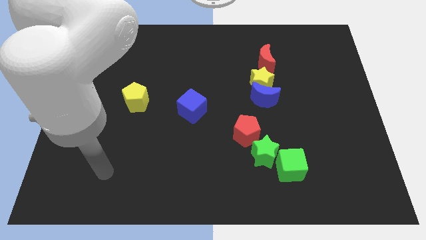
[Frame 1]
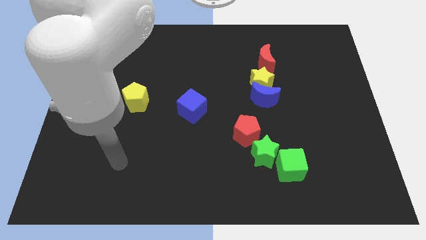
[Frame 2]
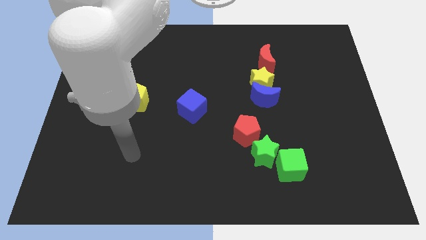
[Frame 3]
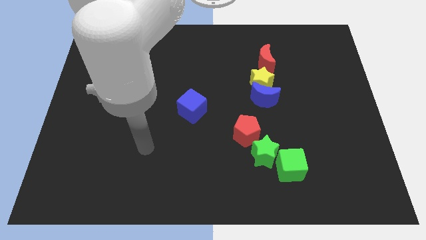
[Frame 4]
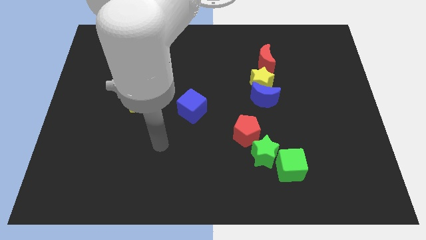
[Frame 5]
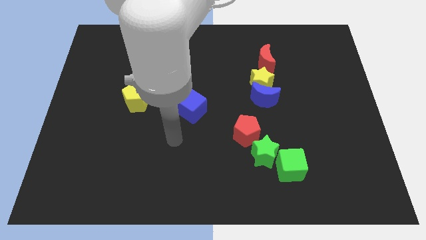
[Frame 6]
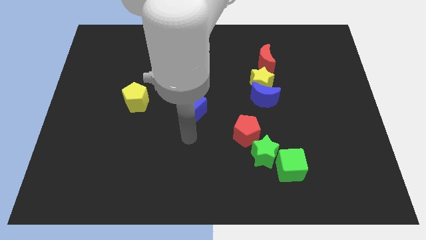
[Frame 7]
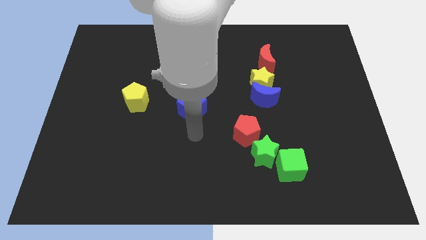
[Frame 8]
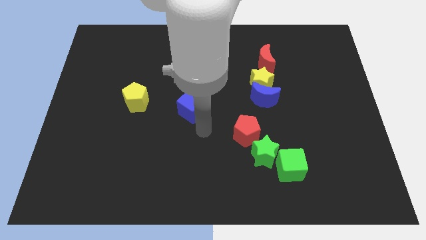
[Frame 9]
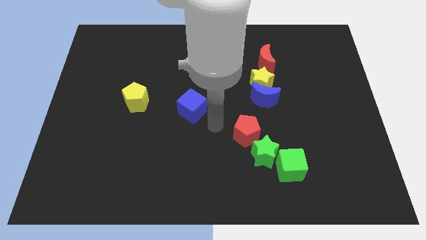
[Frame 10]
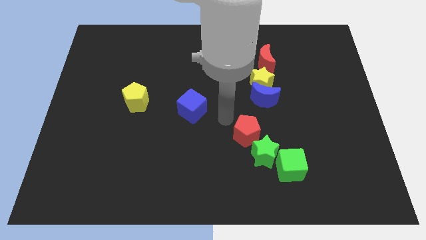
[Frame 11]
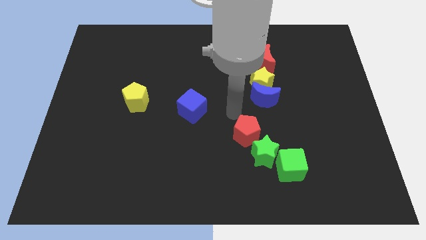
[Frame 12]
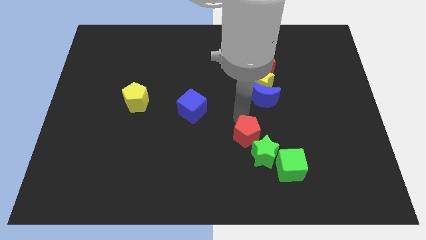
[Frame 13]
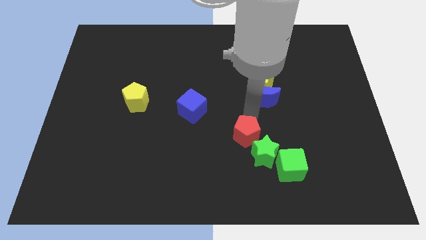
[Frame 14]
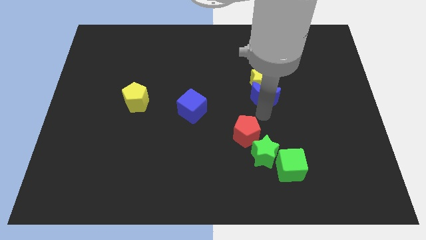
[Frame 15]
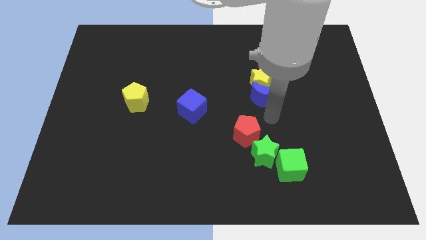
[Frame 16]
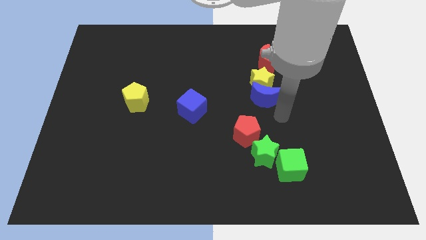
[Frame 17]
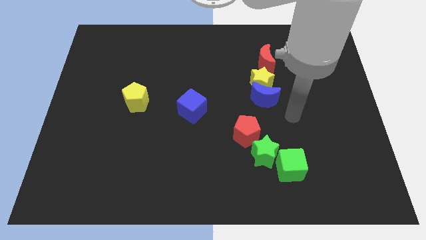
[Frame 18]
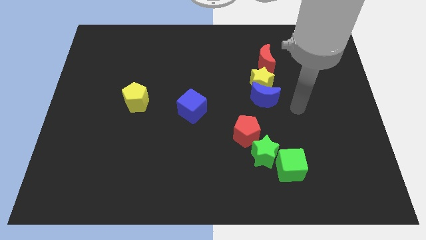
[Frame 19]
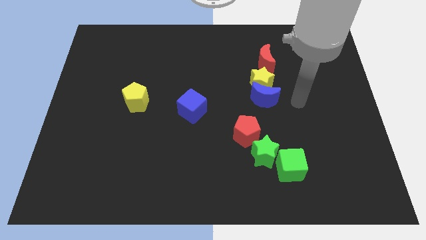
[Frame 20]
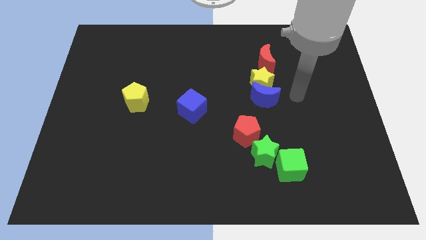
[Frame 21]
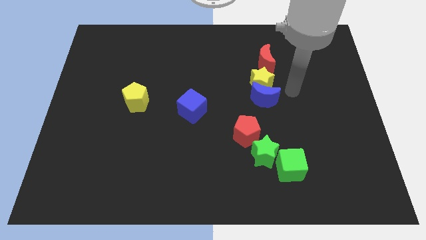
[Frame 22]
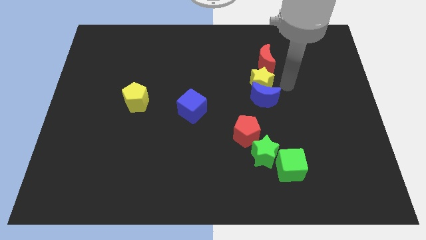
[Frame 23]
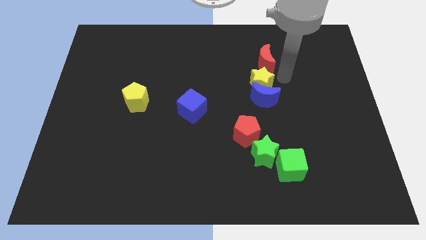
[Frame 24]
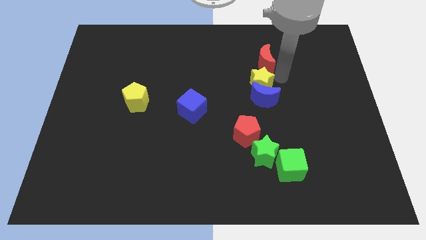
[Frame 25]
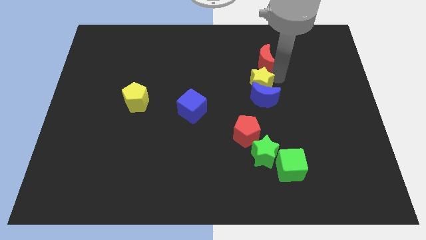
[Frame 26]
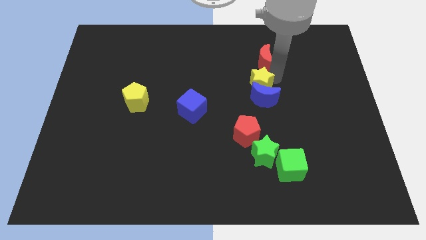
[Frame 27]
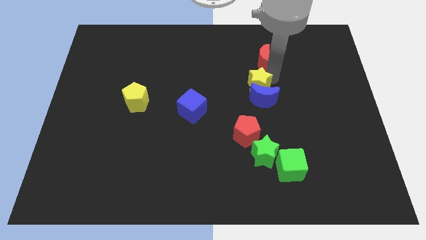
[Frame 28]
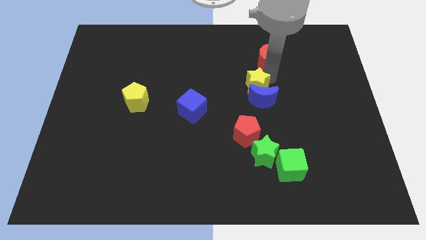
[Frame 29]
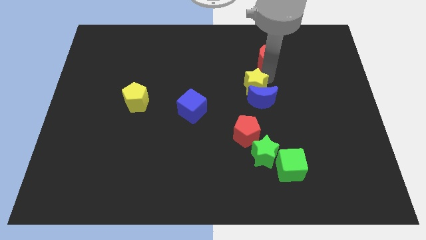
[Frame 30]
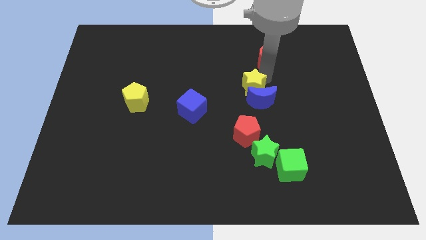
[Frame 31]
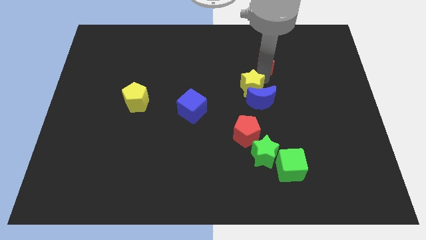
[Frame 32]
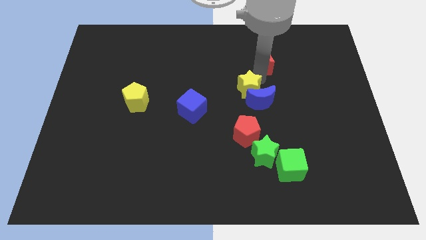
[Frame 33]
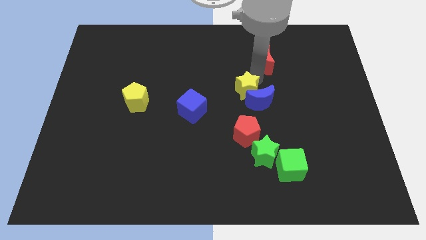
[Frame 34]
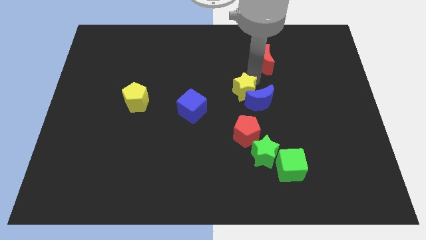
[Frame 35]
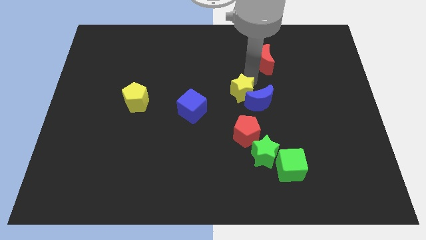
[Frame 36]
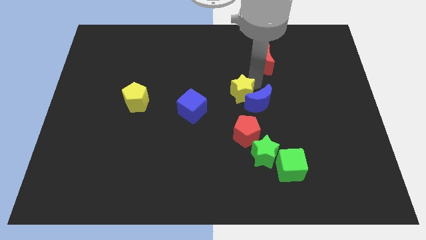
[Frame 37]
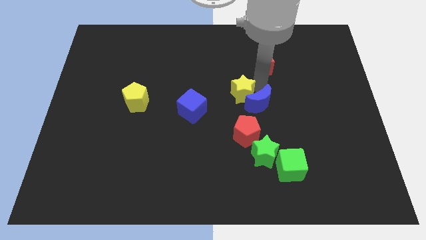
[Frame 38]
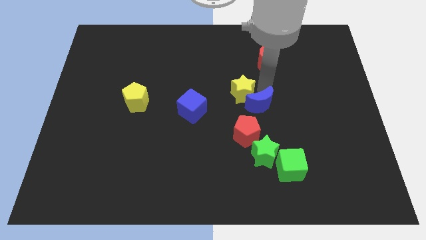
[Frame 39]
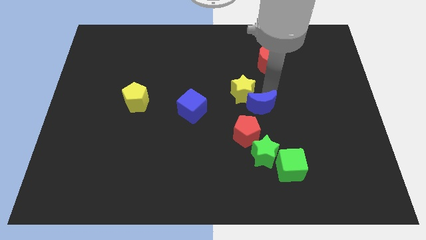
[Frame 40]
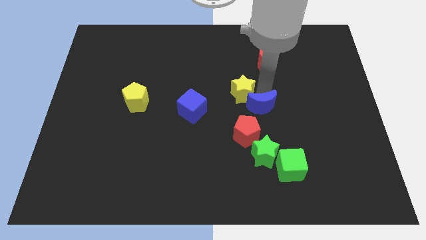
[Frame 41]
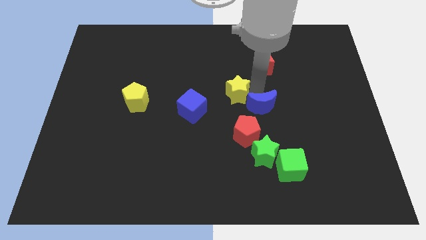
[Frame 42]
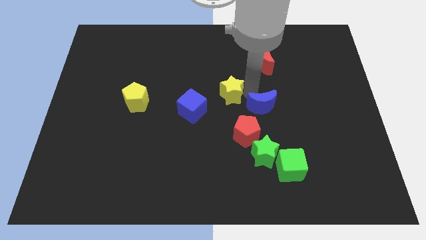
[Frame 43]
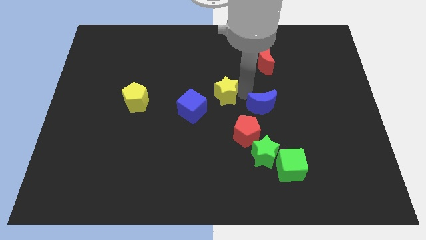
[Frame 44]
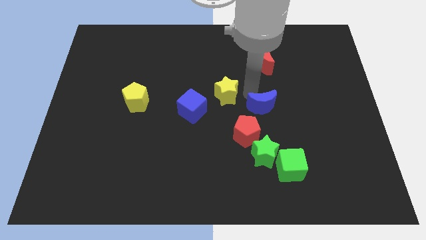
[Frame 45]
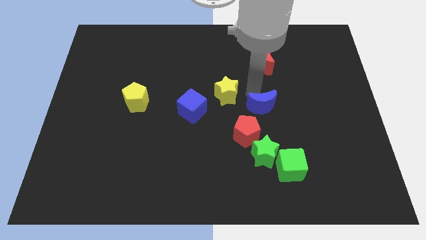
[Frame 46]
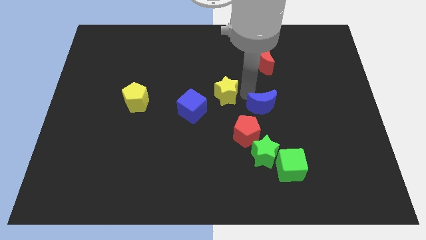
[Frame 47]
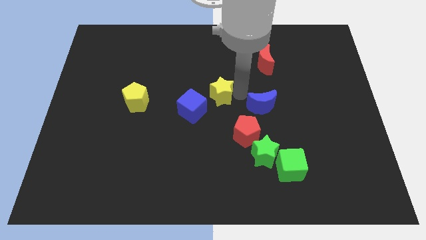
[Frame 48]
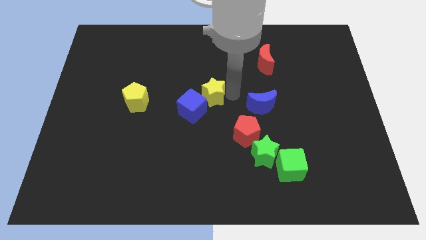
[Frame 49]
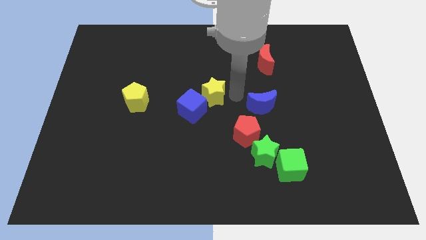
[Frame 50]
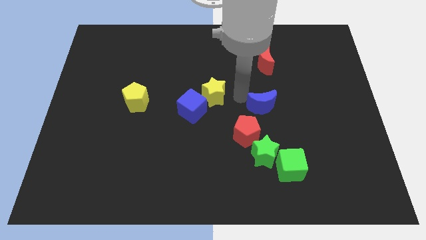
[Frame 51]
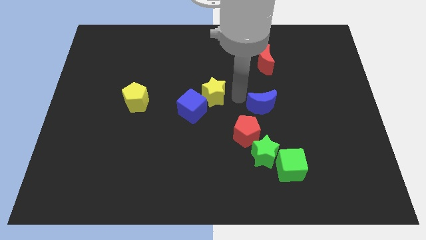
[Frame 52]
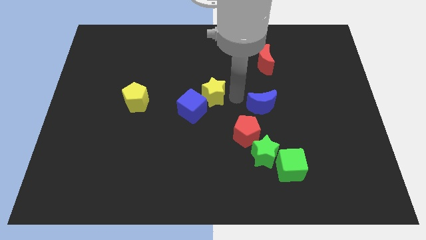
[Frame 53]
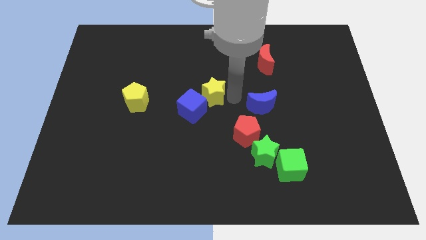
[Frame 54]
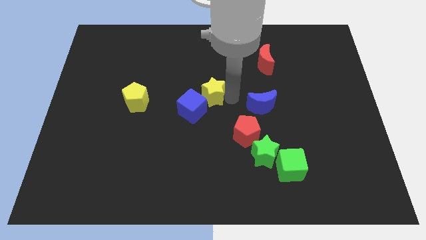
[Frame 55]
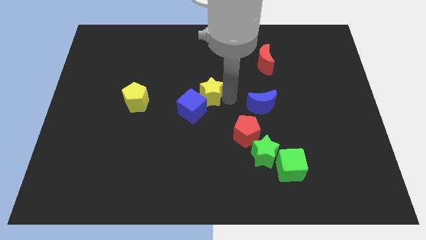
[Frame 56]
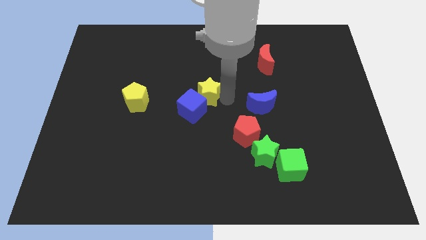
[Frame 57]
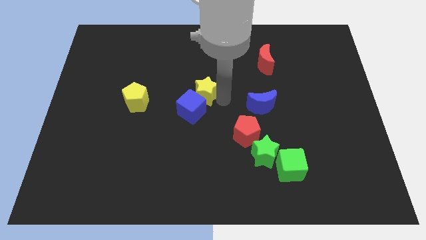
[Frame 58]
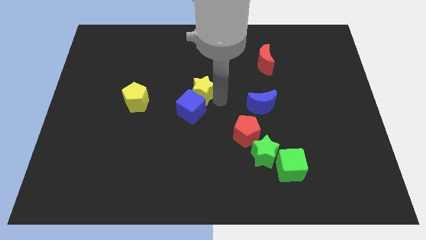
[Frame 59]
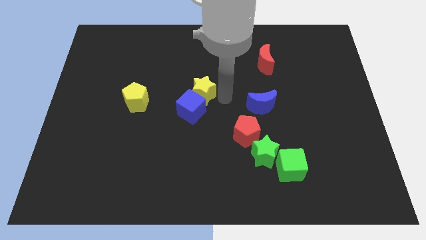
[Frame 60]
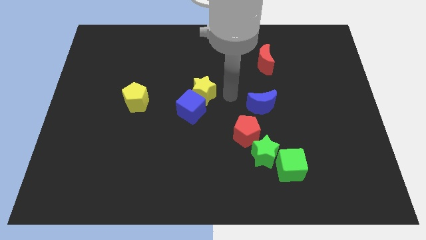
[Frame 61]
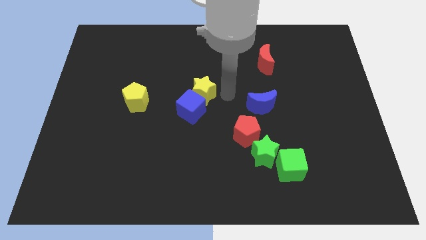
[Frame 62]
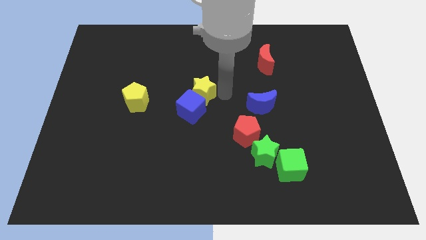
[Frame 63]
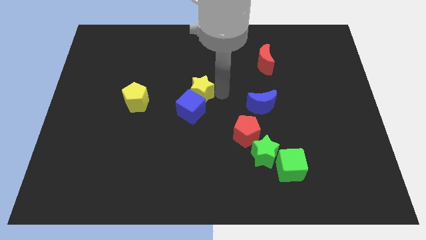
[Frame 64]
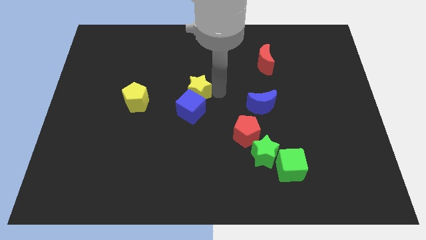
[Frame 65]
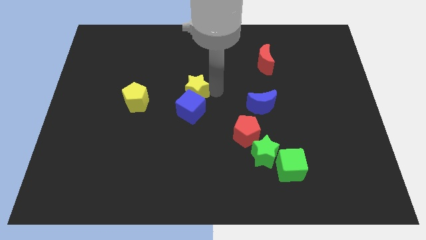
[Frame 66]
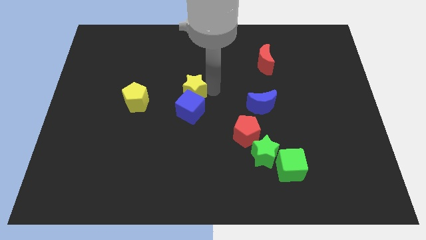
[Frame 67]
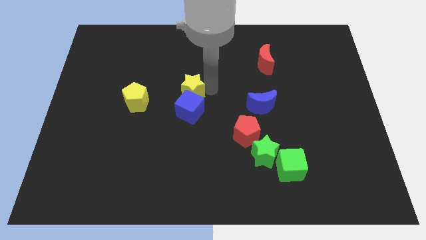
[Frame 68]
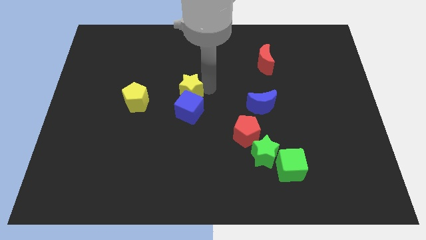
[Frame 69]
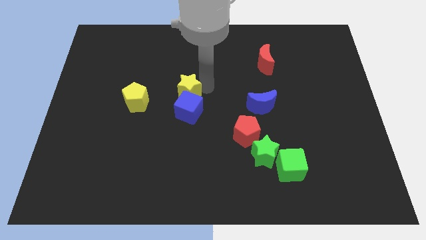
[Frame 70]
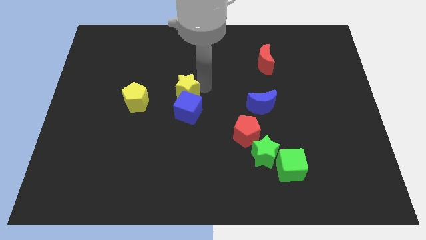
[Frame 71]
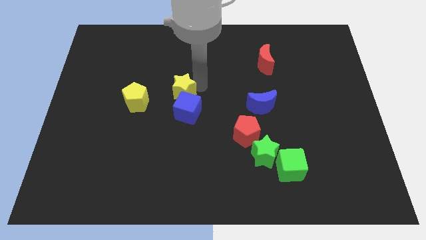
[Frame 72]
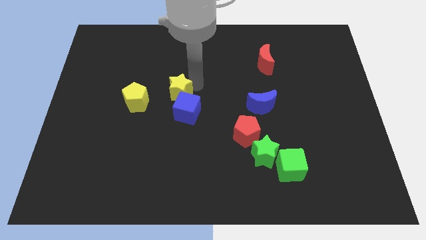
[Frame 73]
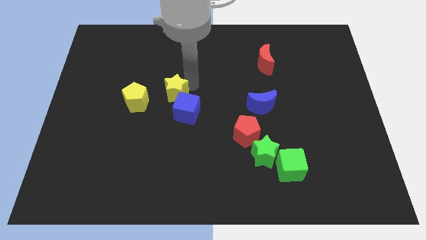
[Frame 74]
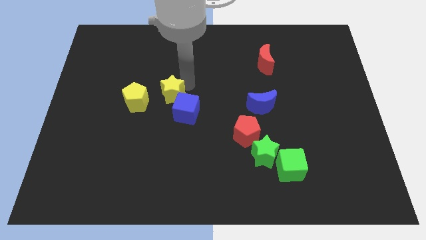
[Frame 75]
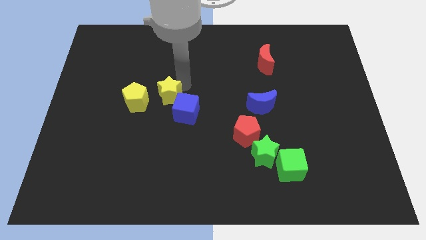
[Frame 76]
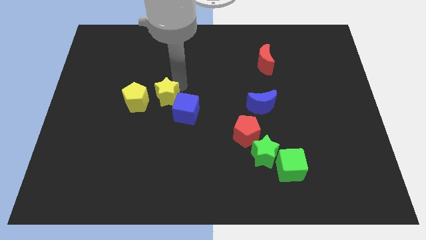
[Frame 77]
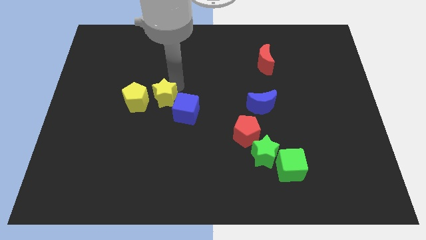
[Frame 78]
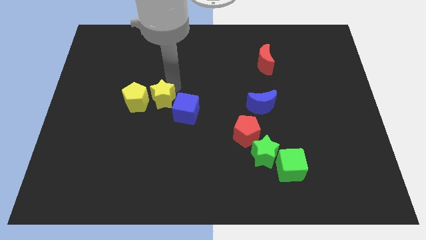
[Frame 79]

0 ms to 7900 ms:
push the yellow star to the yellow pentagon
